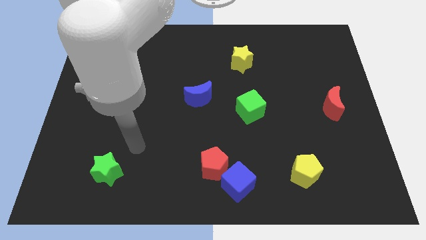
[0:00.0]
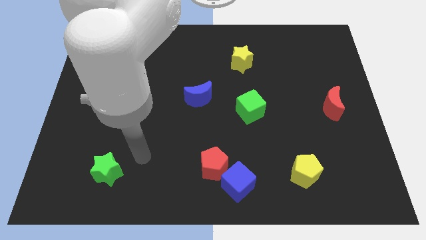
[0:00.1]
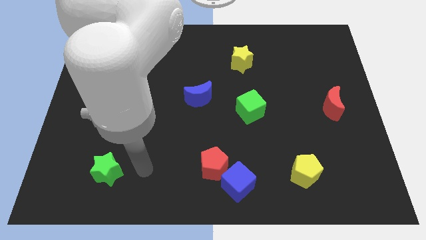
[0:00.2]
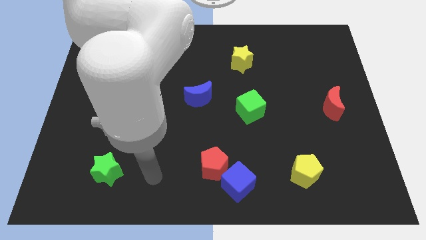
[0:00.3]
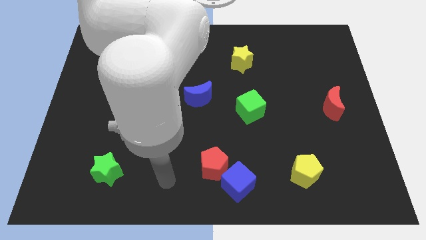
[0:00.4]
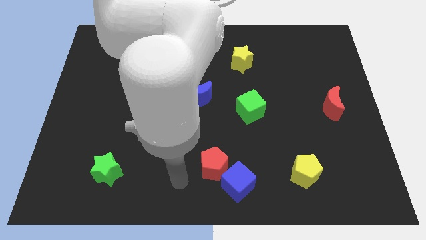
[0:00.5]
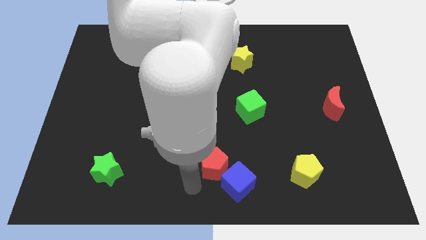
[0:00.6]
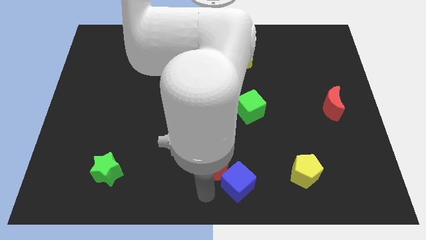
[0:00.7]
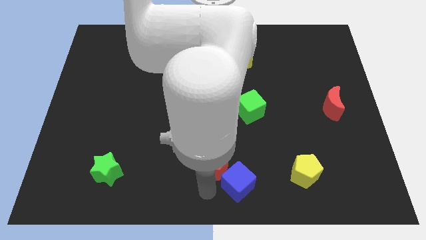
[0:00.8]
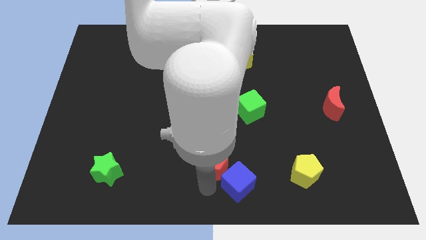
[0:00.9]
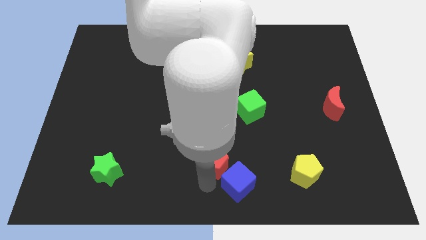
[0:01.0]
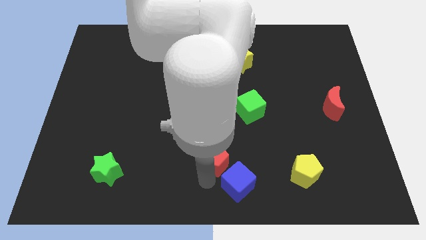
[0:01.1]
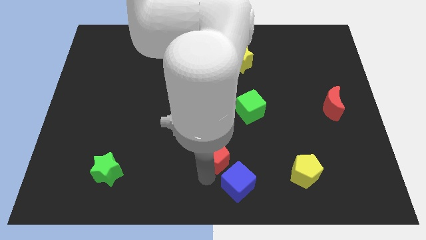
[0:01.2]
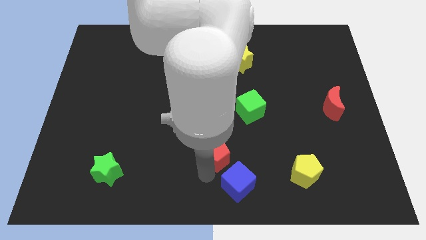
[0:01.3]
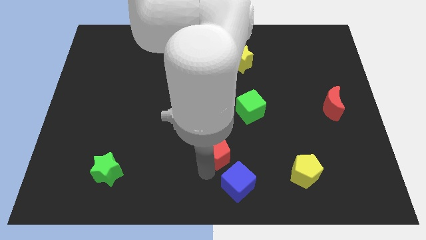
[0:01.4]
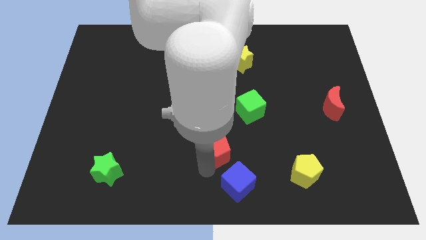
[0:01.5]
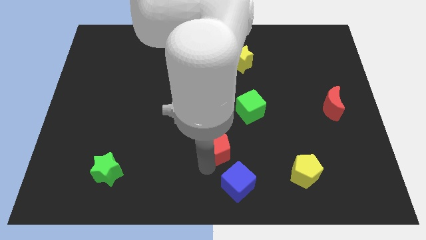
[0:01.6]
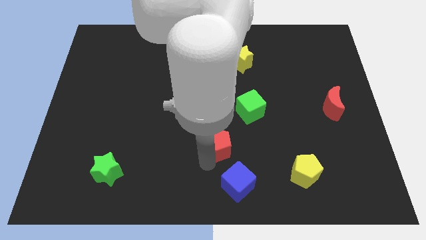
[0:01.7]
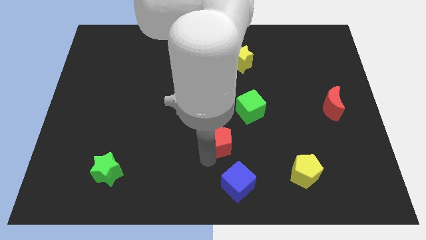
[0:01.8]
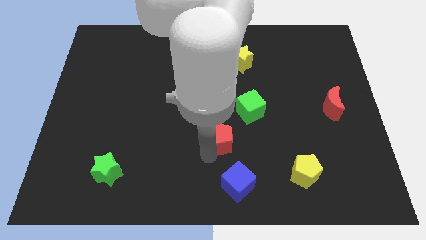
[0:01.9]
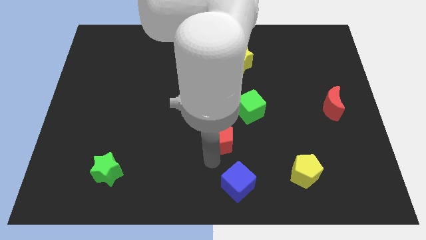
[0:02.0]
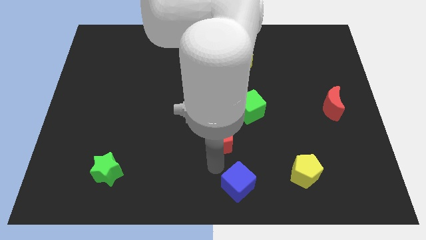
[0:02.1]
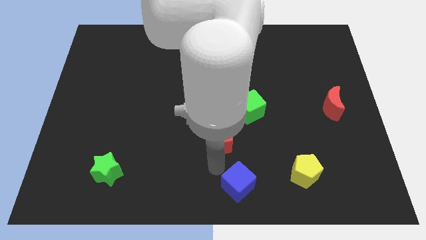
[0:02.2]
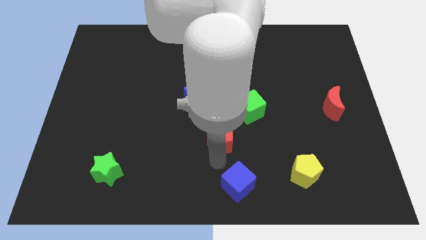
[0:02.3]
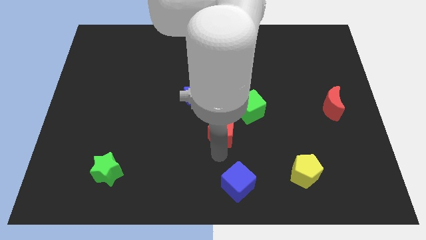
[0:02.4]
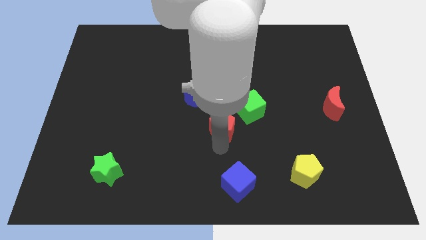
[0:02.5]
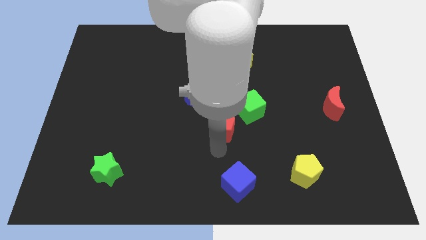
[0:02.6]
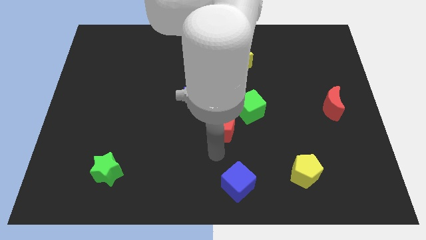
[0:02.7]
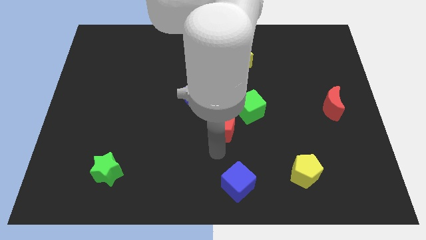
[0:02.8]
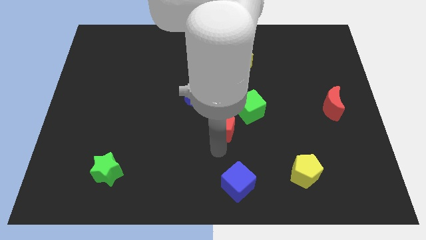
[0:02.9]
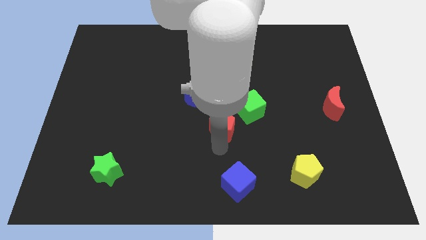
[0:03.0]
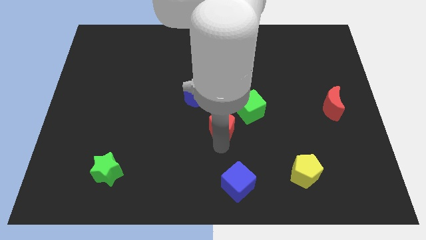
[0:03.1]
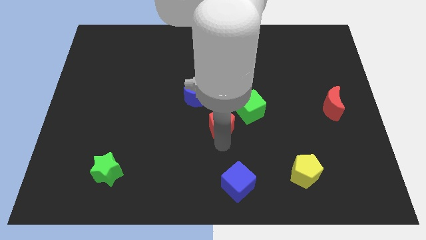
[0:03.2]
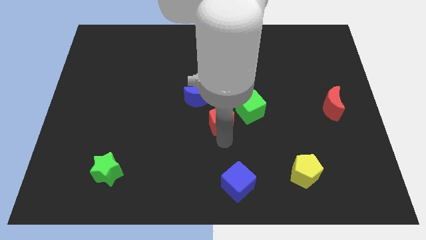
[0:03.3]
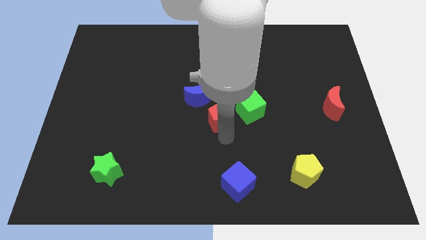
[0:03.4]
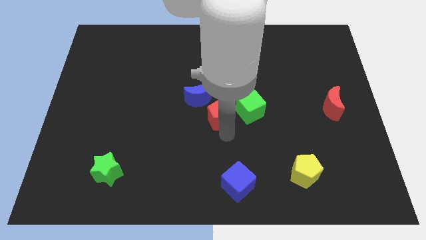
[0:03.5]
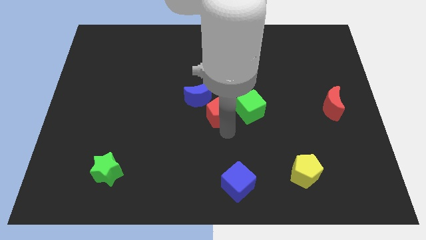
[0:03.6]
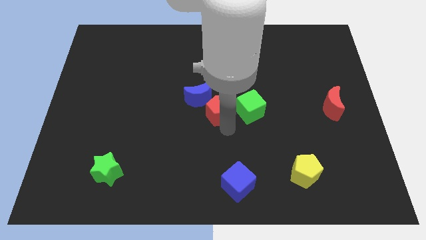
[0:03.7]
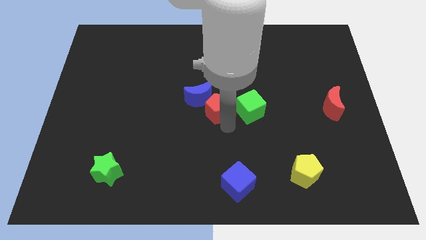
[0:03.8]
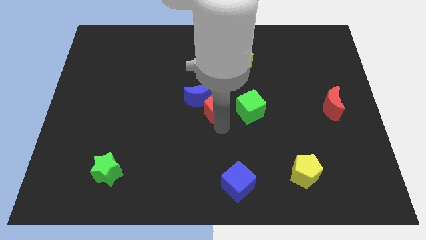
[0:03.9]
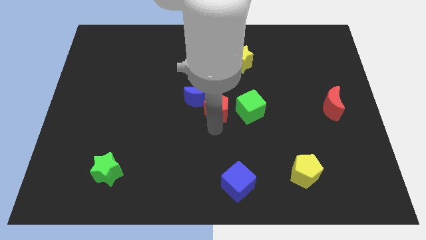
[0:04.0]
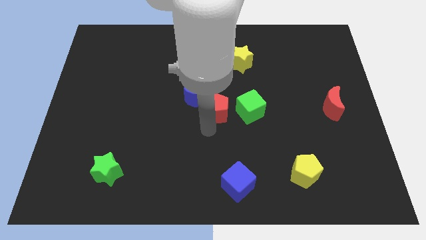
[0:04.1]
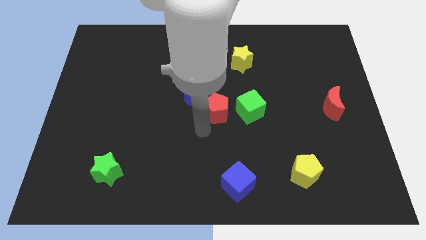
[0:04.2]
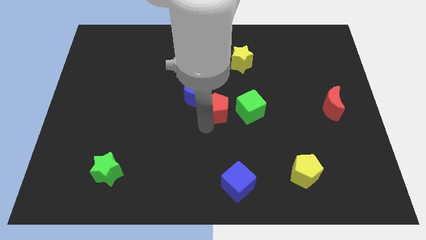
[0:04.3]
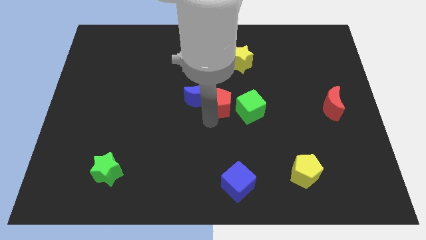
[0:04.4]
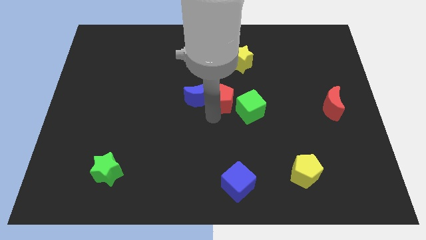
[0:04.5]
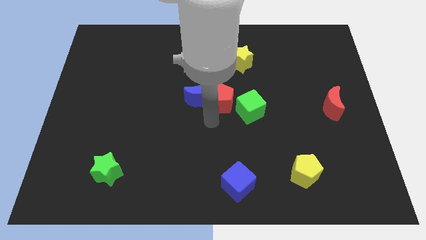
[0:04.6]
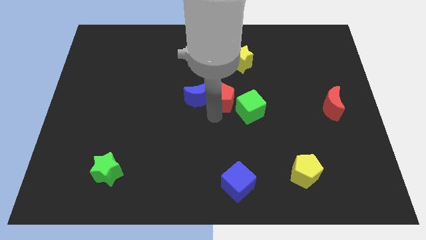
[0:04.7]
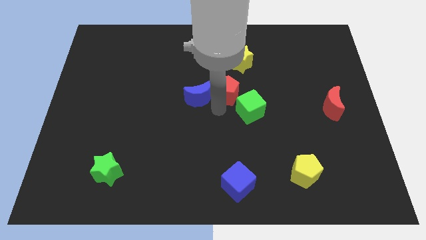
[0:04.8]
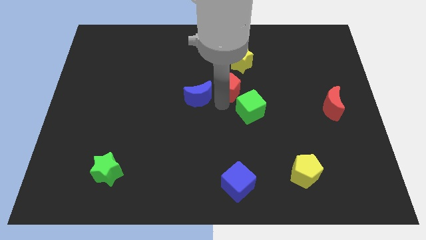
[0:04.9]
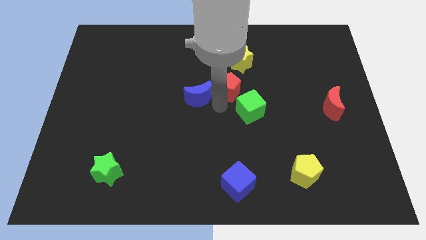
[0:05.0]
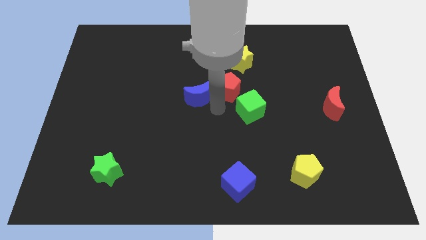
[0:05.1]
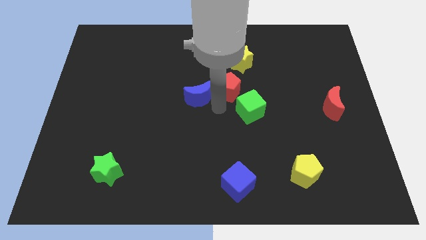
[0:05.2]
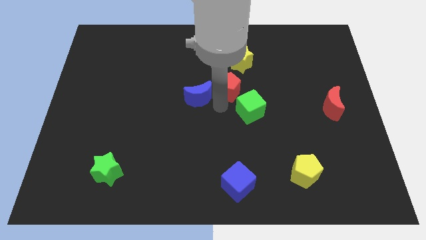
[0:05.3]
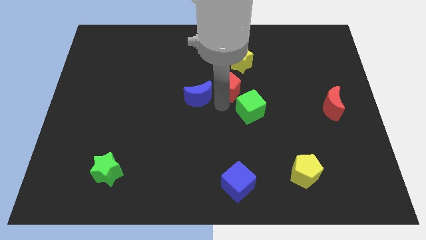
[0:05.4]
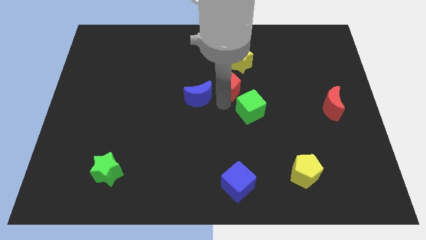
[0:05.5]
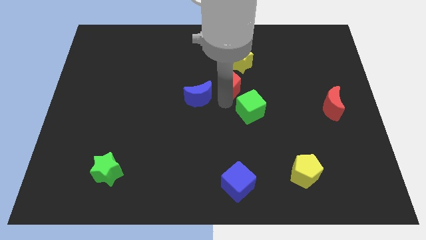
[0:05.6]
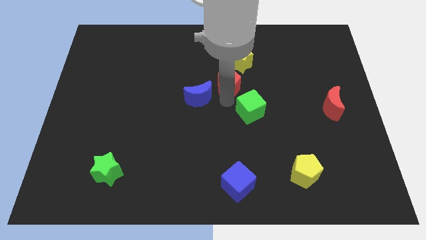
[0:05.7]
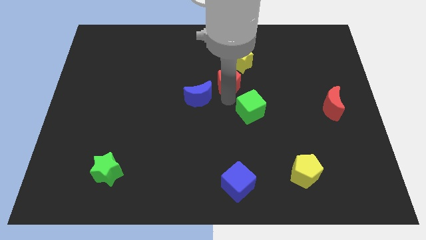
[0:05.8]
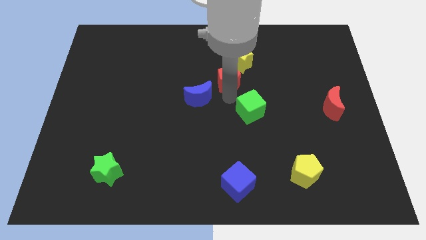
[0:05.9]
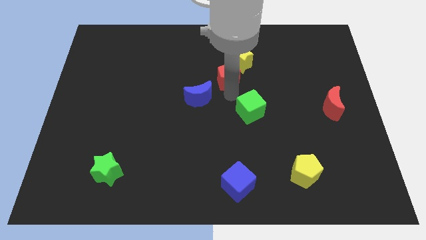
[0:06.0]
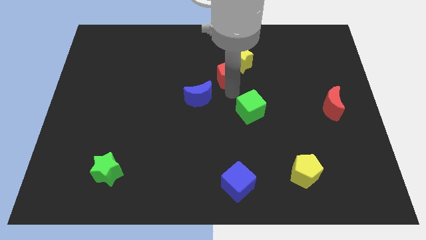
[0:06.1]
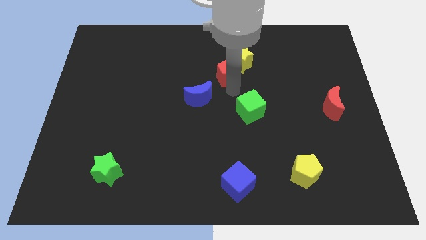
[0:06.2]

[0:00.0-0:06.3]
move the red pentagon close to the yellow star

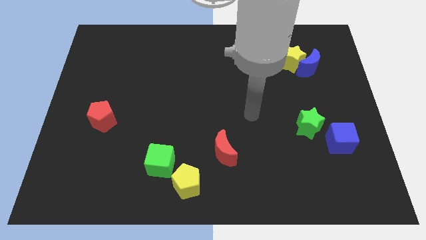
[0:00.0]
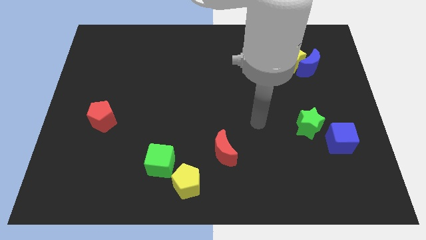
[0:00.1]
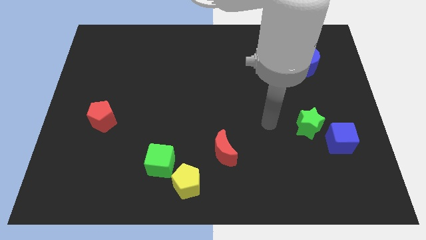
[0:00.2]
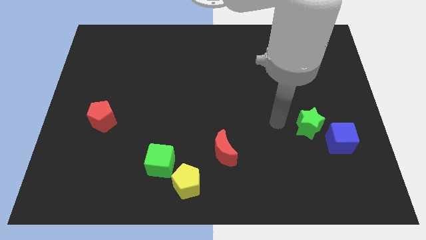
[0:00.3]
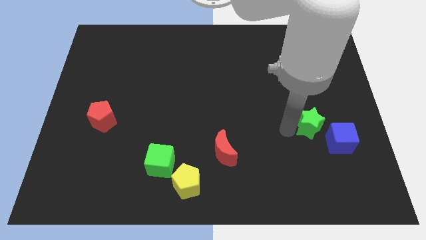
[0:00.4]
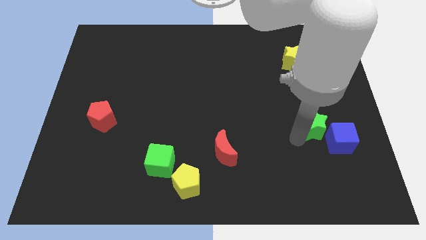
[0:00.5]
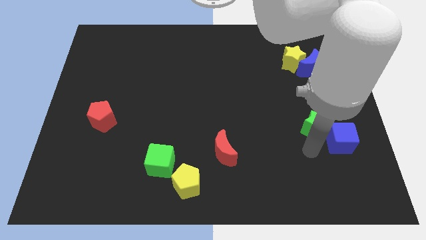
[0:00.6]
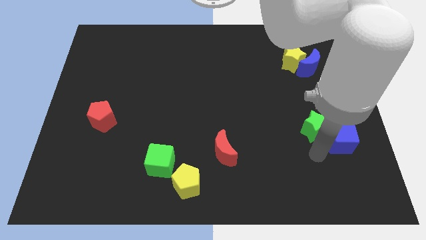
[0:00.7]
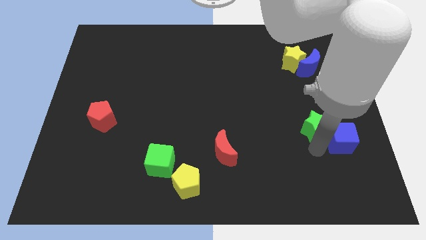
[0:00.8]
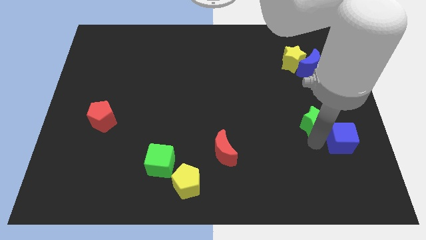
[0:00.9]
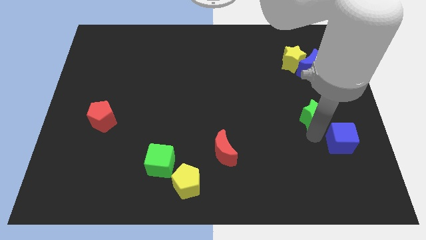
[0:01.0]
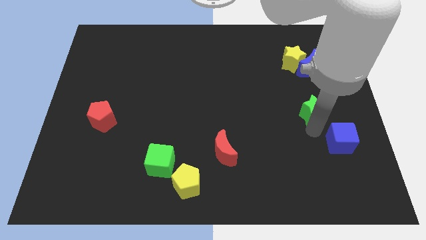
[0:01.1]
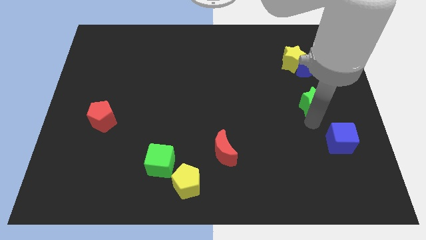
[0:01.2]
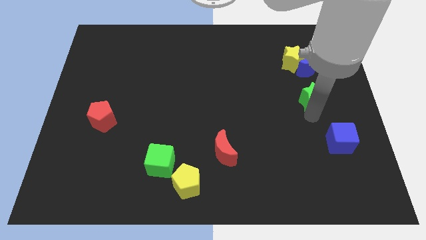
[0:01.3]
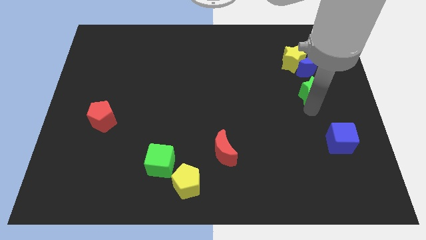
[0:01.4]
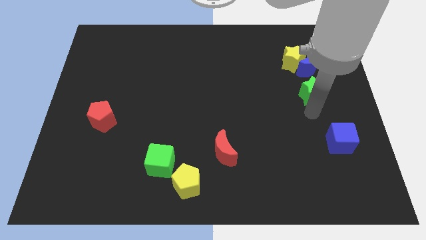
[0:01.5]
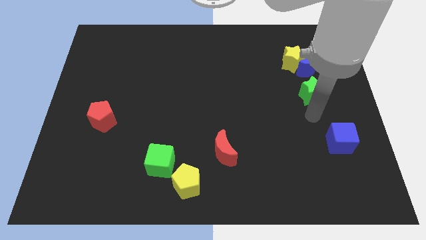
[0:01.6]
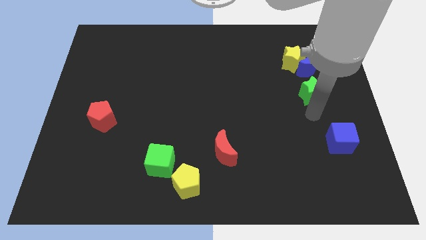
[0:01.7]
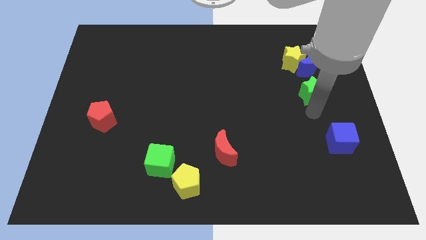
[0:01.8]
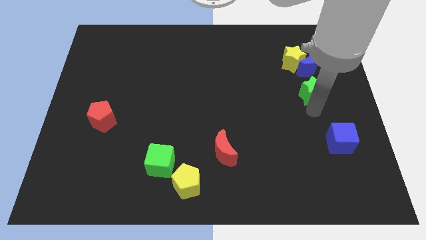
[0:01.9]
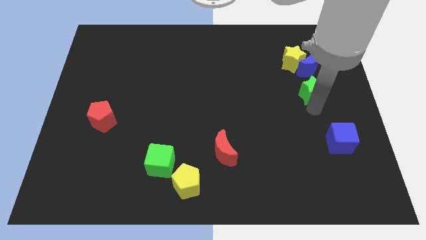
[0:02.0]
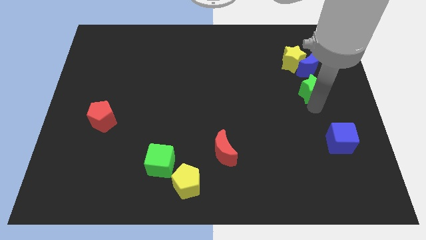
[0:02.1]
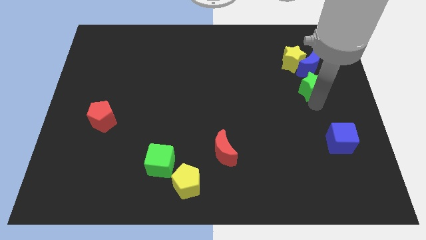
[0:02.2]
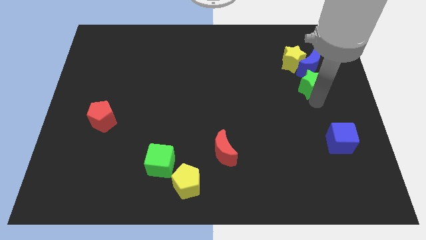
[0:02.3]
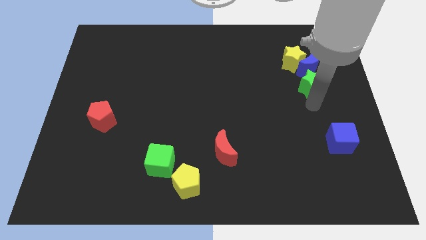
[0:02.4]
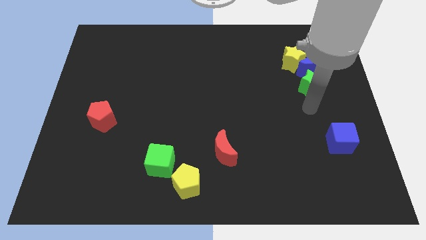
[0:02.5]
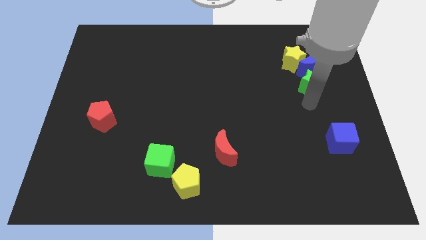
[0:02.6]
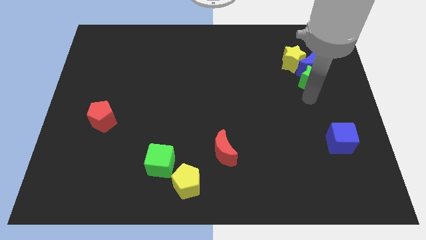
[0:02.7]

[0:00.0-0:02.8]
slide the green star close to the blue moon
